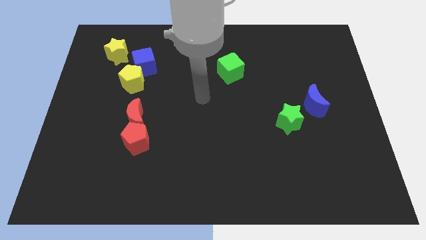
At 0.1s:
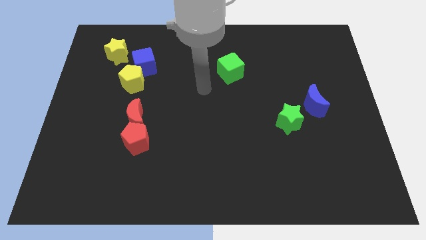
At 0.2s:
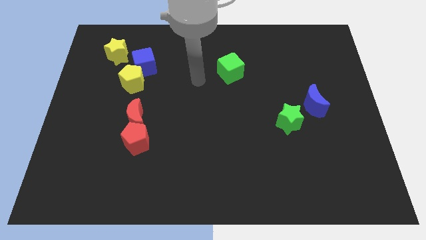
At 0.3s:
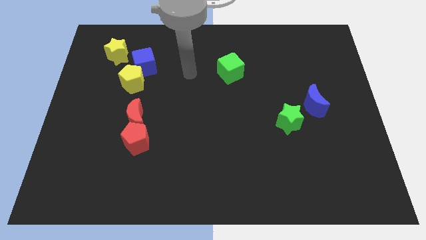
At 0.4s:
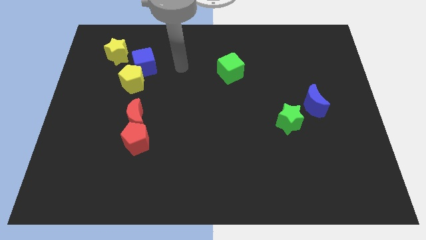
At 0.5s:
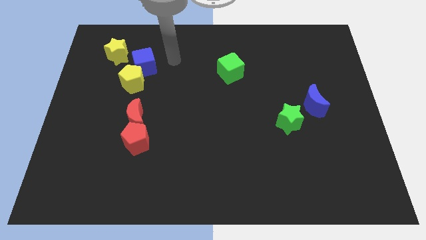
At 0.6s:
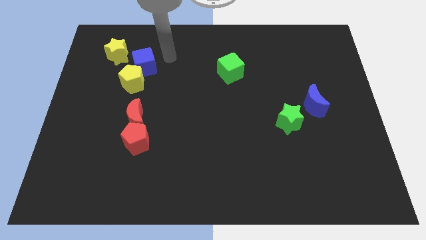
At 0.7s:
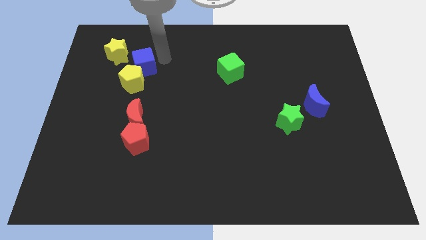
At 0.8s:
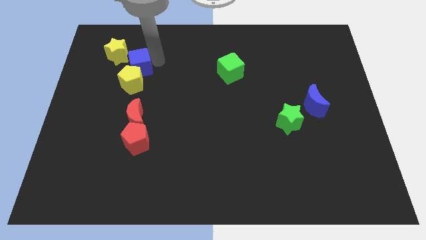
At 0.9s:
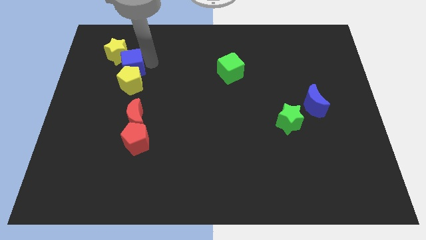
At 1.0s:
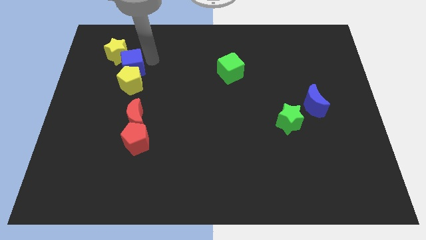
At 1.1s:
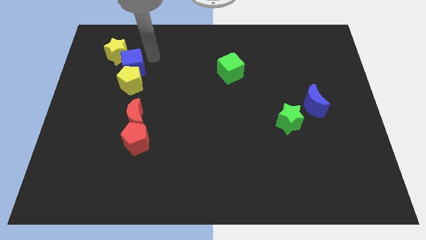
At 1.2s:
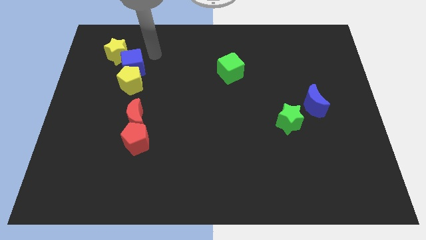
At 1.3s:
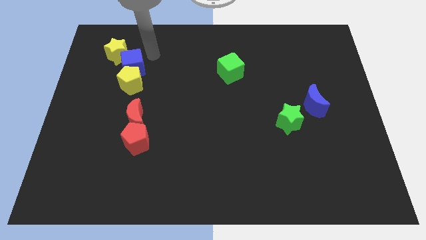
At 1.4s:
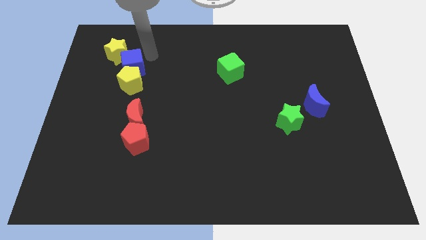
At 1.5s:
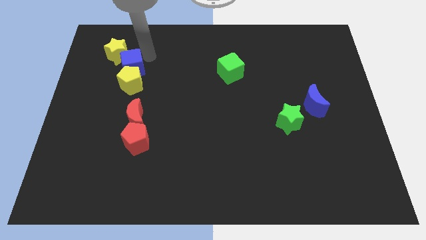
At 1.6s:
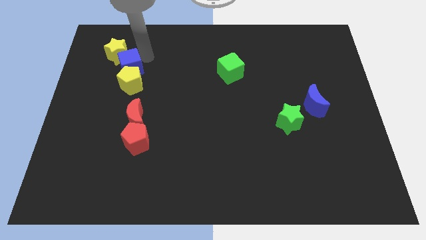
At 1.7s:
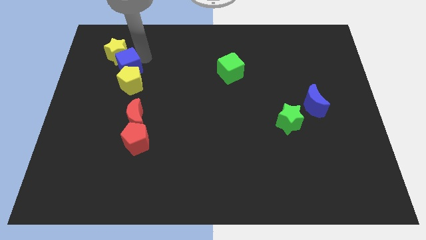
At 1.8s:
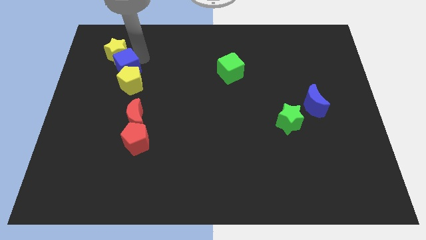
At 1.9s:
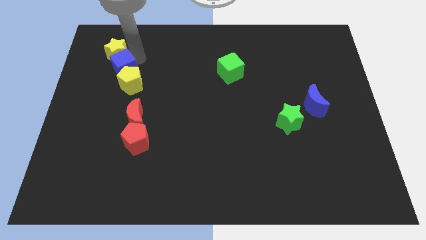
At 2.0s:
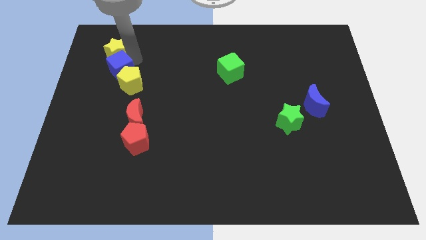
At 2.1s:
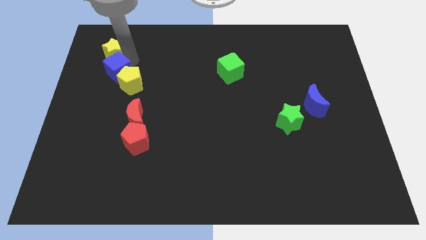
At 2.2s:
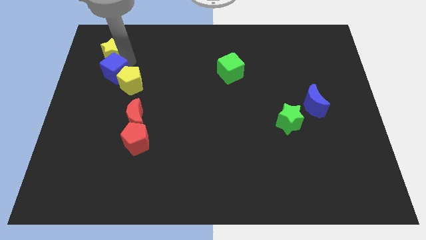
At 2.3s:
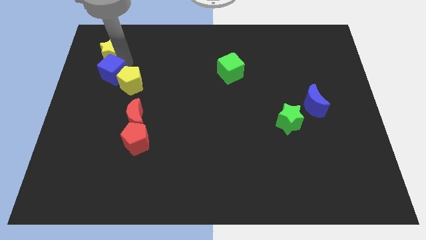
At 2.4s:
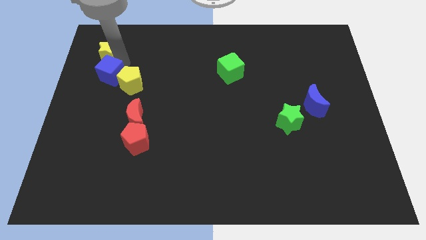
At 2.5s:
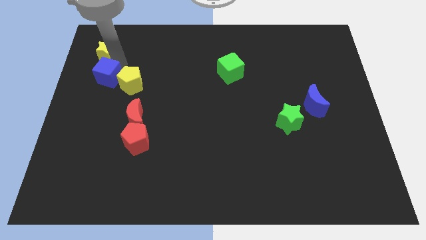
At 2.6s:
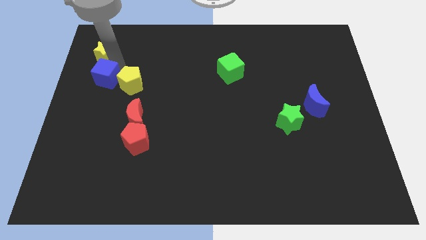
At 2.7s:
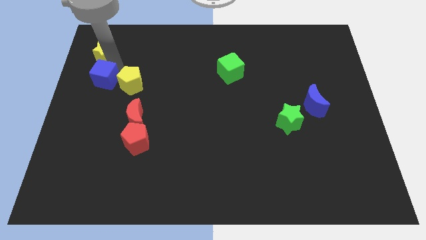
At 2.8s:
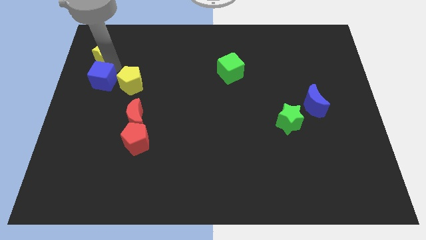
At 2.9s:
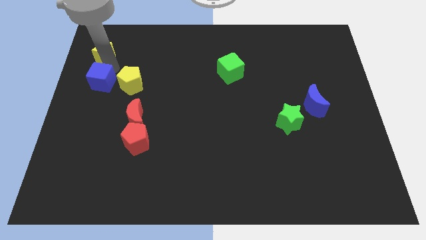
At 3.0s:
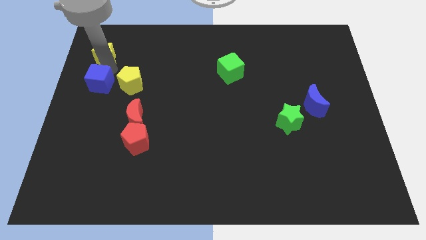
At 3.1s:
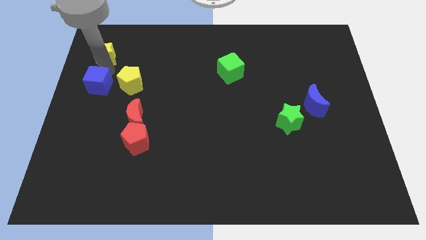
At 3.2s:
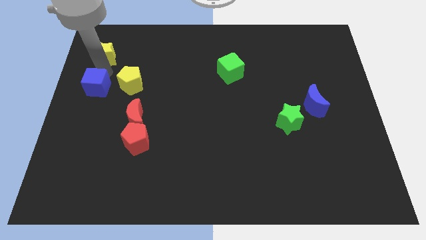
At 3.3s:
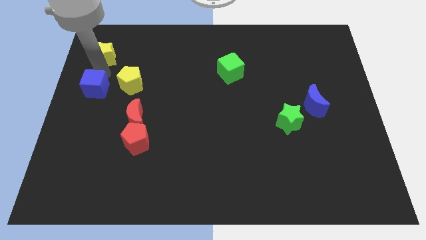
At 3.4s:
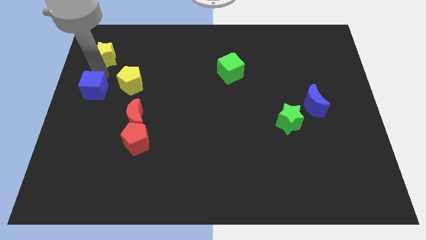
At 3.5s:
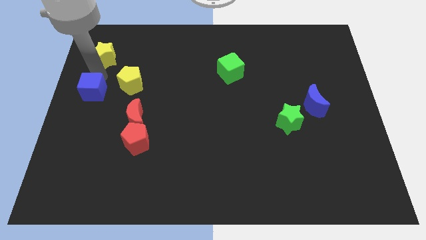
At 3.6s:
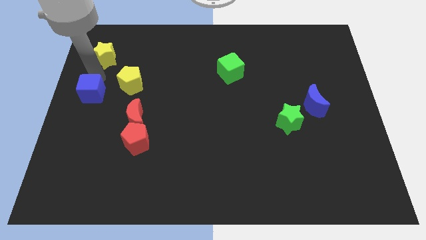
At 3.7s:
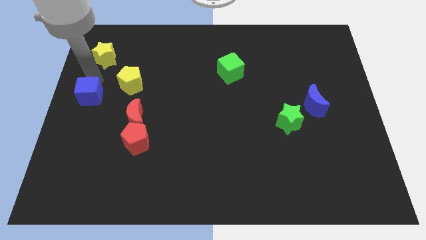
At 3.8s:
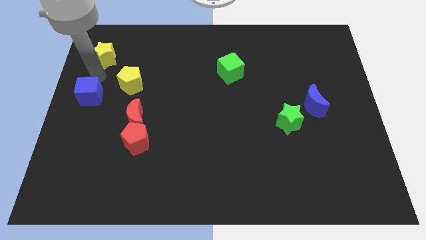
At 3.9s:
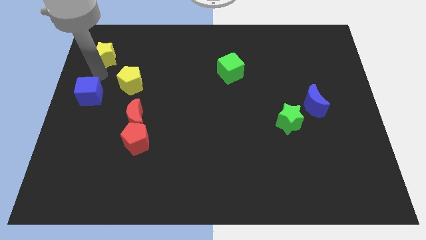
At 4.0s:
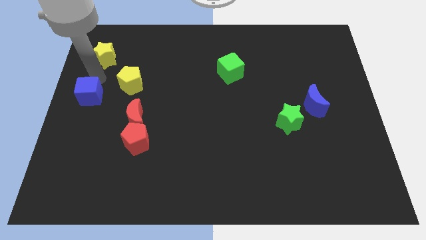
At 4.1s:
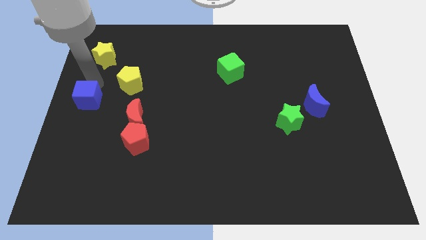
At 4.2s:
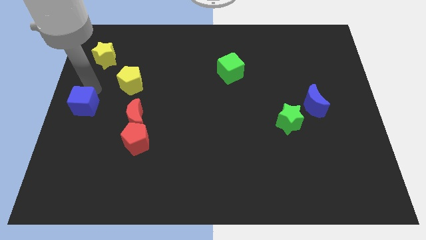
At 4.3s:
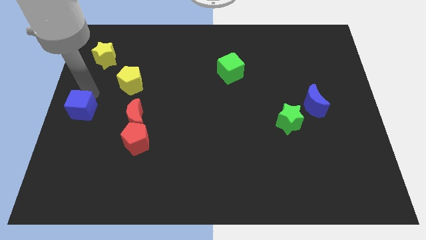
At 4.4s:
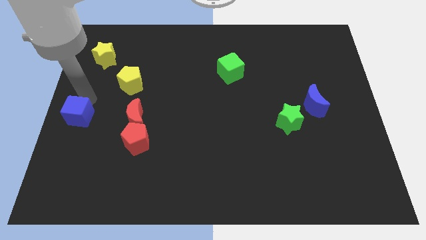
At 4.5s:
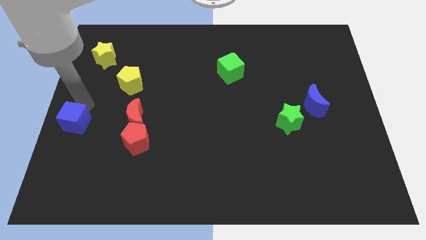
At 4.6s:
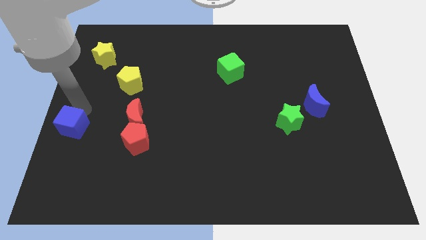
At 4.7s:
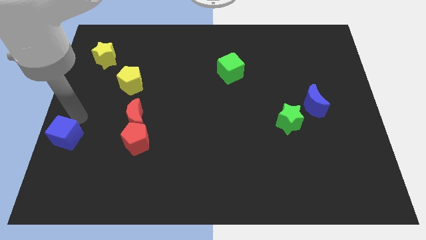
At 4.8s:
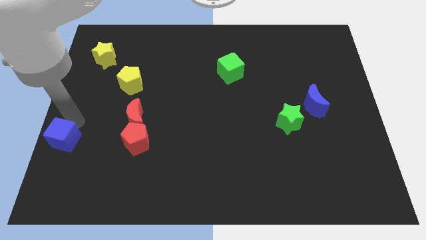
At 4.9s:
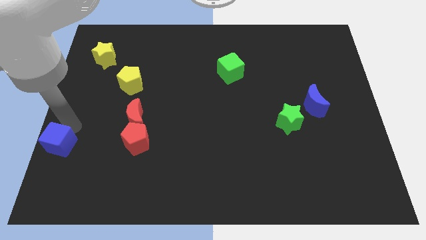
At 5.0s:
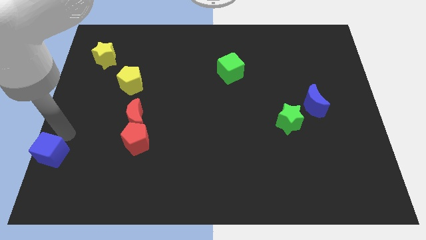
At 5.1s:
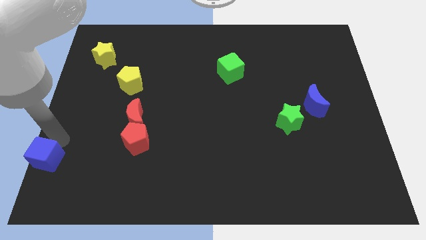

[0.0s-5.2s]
move the blue cube to the lower left corner
